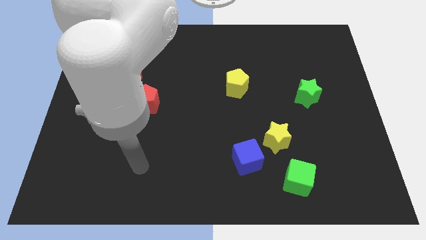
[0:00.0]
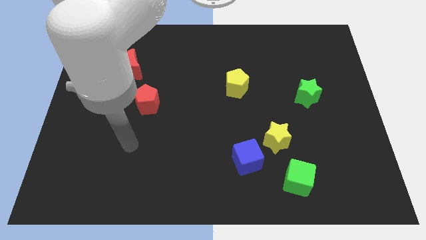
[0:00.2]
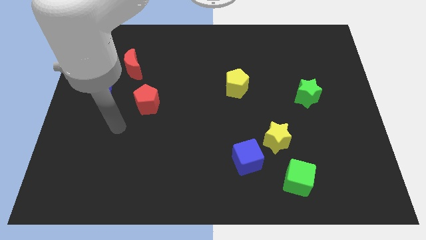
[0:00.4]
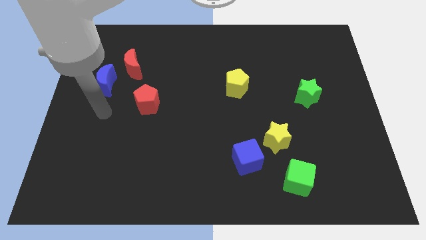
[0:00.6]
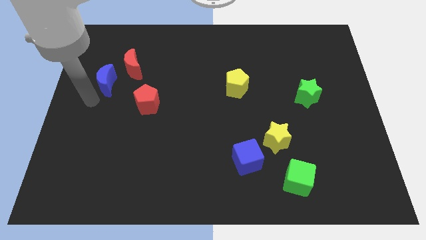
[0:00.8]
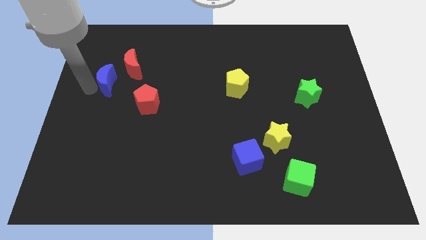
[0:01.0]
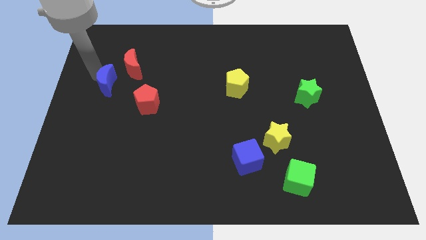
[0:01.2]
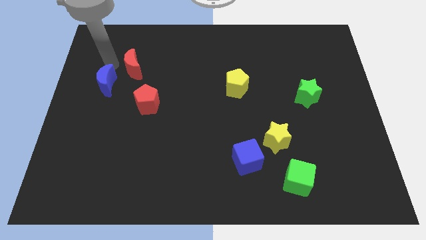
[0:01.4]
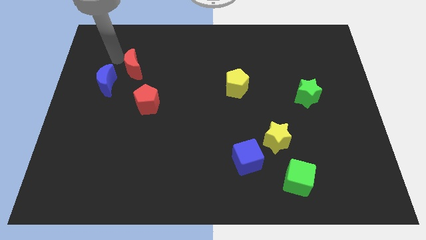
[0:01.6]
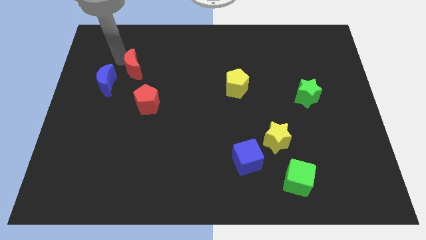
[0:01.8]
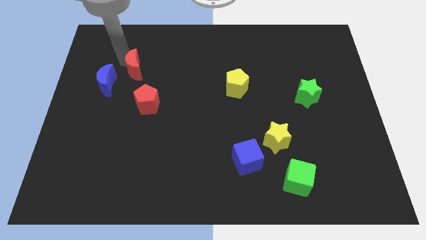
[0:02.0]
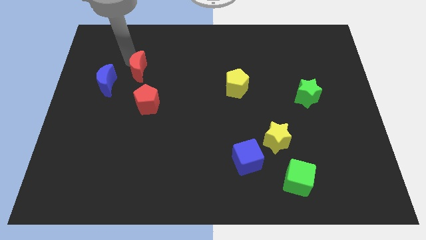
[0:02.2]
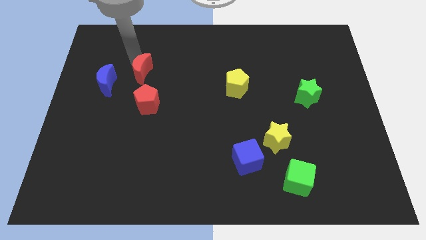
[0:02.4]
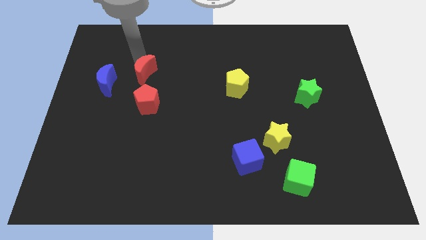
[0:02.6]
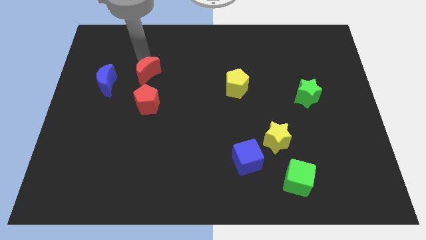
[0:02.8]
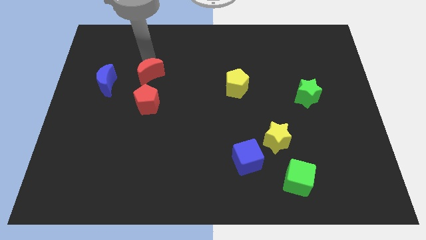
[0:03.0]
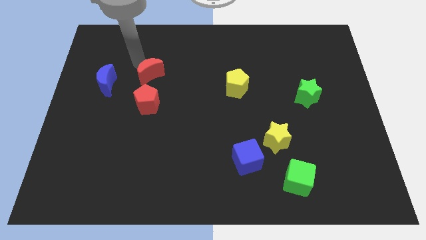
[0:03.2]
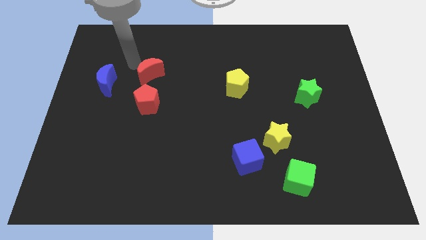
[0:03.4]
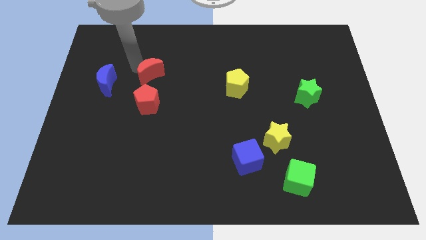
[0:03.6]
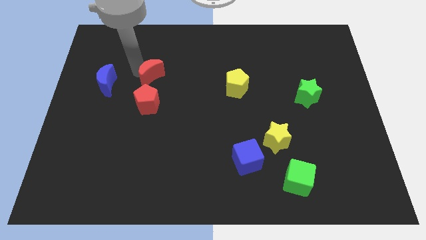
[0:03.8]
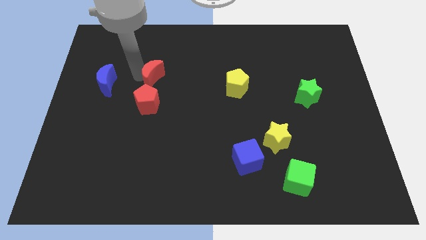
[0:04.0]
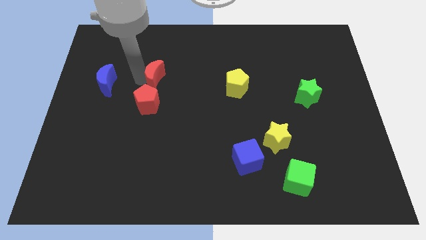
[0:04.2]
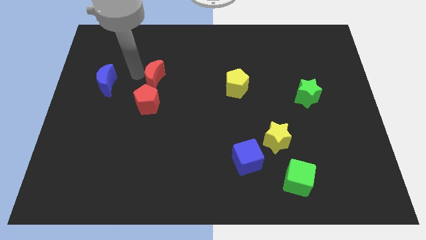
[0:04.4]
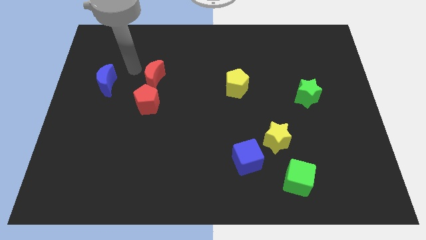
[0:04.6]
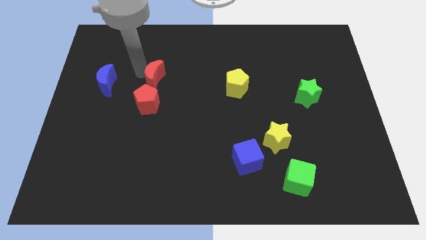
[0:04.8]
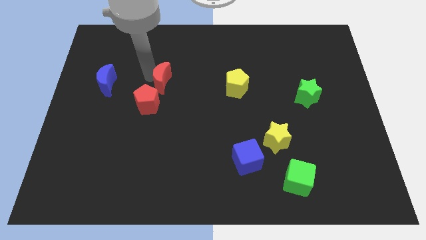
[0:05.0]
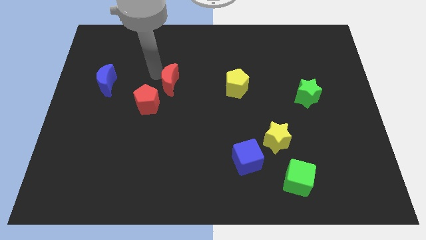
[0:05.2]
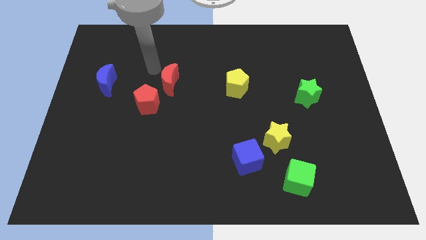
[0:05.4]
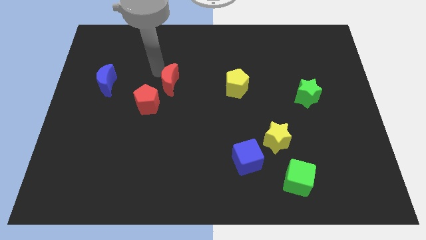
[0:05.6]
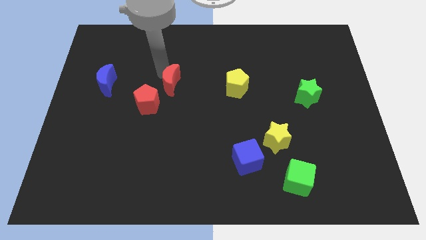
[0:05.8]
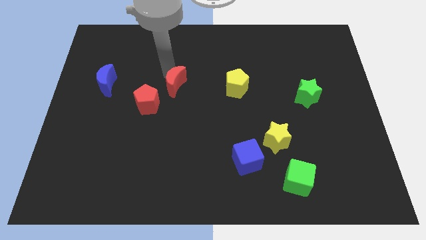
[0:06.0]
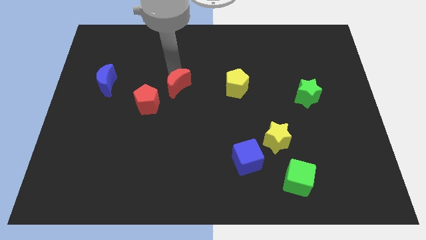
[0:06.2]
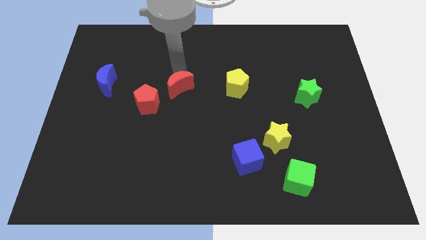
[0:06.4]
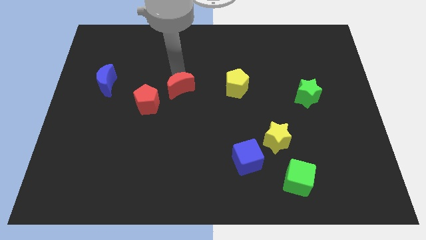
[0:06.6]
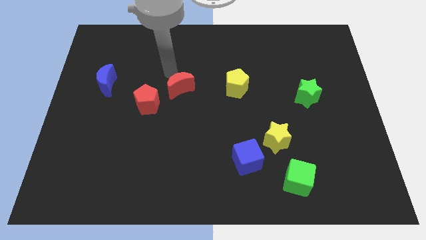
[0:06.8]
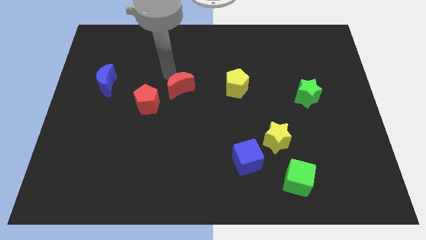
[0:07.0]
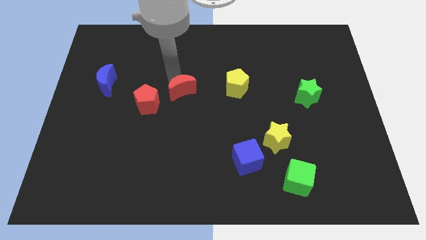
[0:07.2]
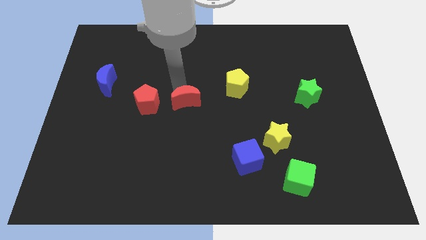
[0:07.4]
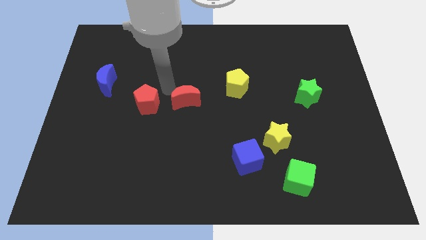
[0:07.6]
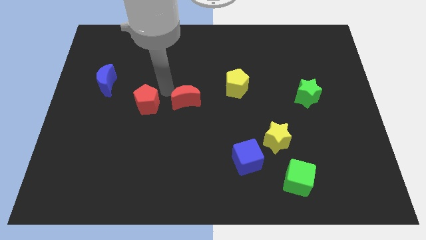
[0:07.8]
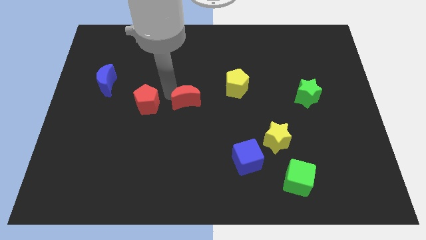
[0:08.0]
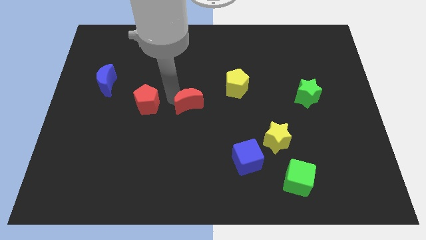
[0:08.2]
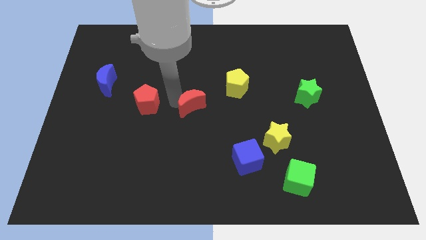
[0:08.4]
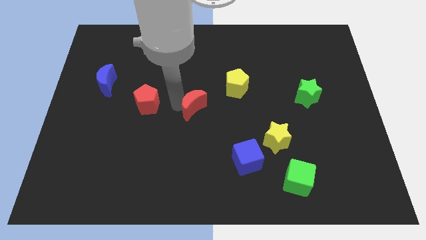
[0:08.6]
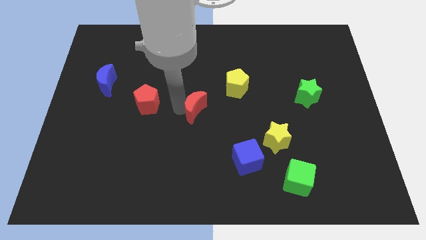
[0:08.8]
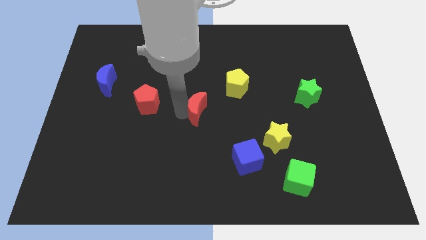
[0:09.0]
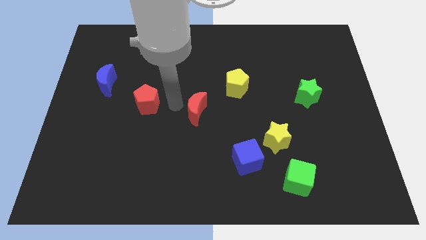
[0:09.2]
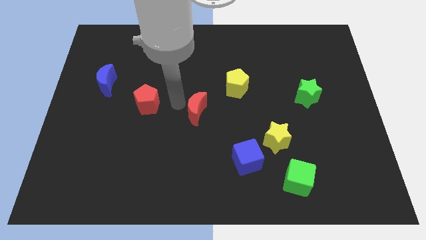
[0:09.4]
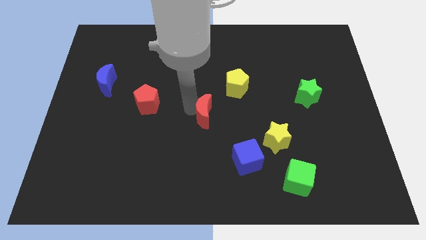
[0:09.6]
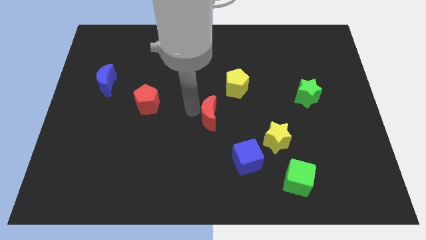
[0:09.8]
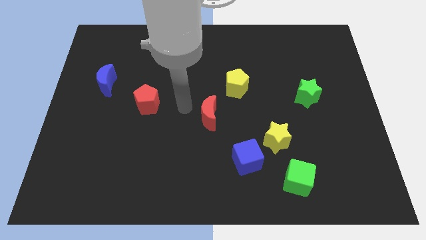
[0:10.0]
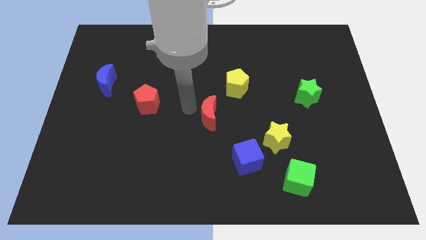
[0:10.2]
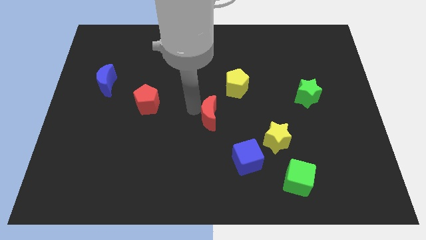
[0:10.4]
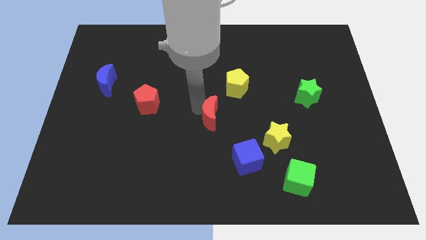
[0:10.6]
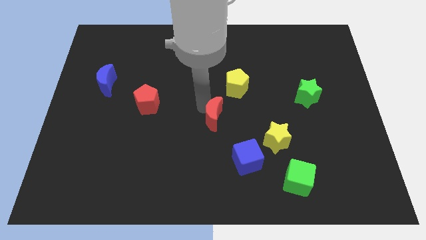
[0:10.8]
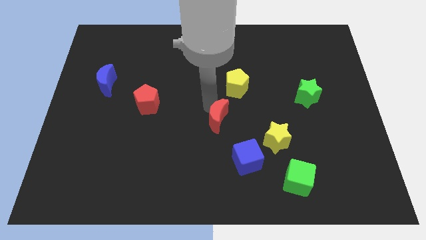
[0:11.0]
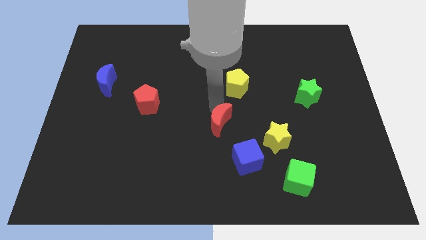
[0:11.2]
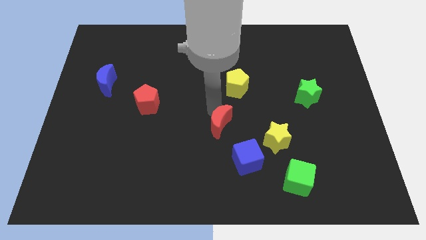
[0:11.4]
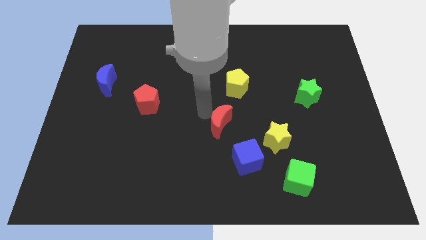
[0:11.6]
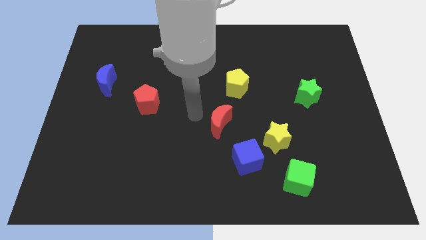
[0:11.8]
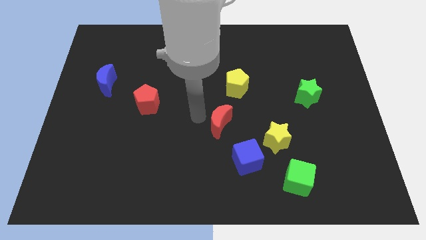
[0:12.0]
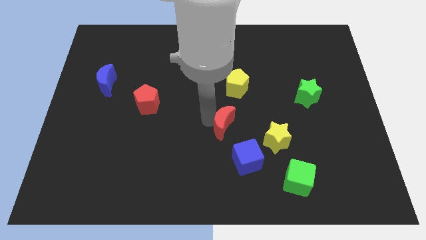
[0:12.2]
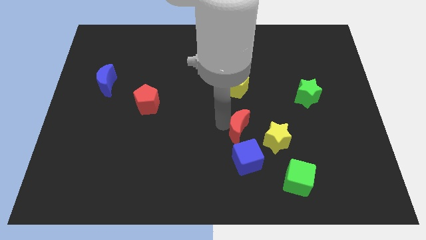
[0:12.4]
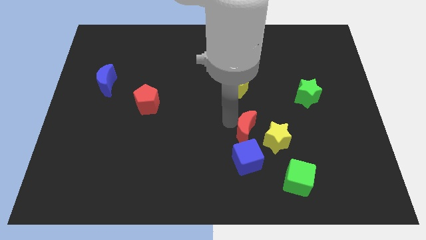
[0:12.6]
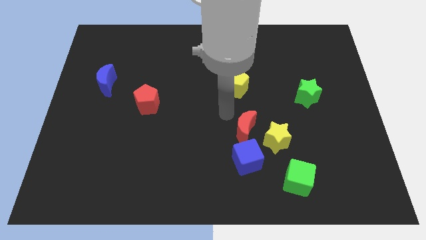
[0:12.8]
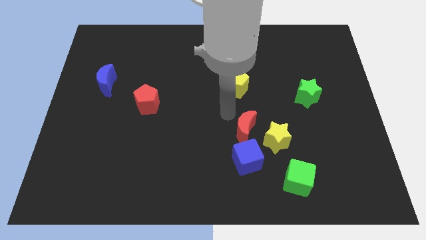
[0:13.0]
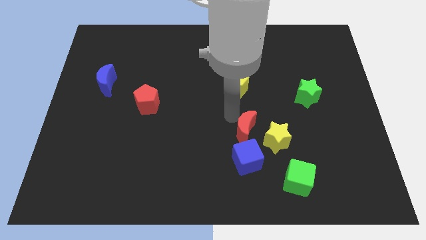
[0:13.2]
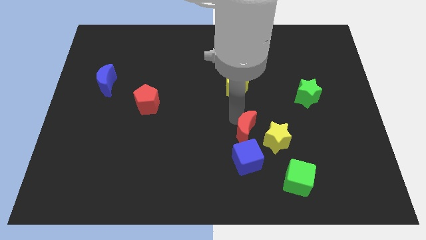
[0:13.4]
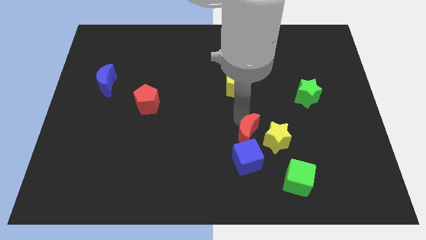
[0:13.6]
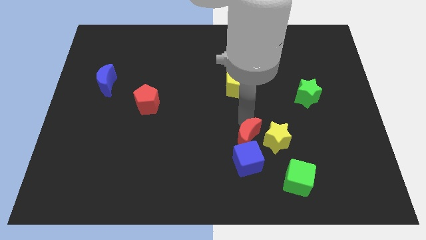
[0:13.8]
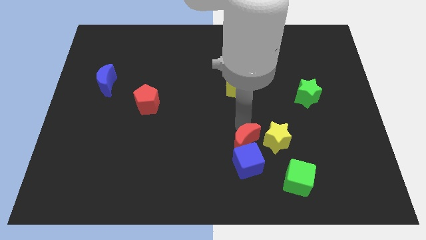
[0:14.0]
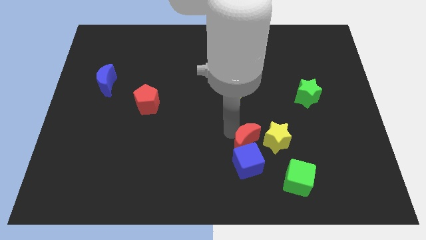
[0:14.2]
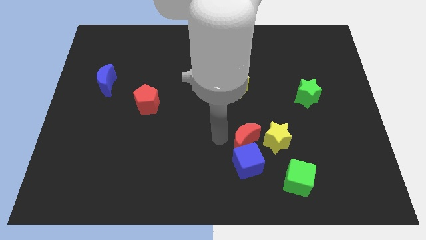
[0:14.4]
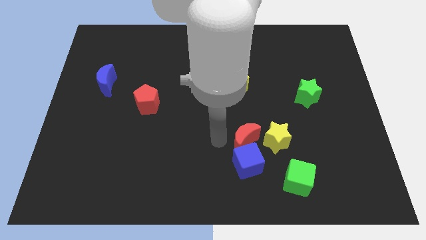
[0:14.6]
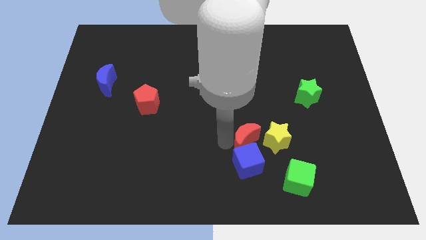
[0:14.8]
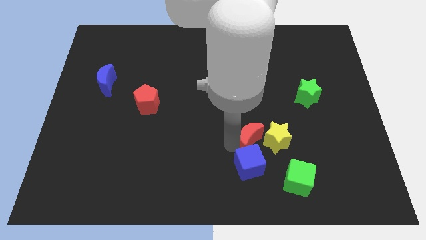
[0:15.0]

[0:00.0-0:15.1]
put the red moon close to the yellow star
